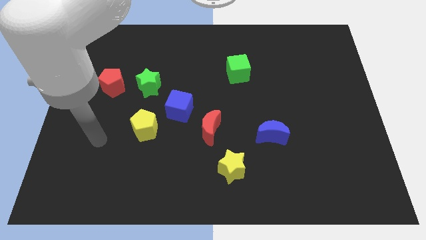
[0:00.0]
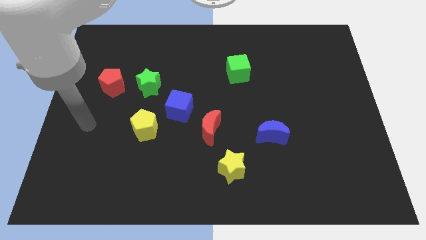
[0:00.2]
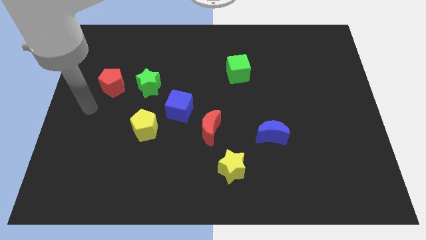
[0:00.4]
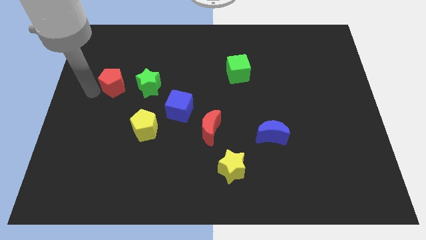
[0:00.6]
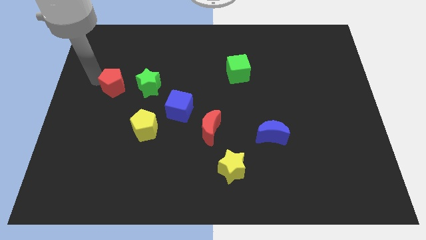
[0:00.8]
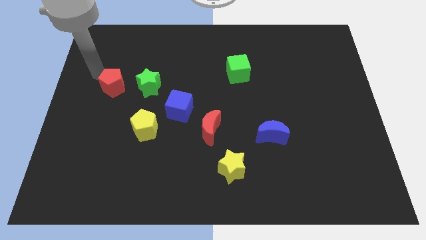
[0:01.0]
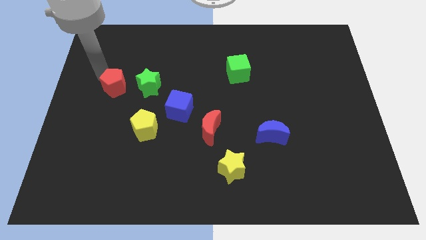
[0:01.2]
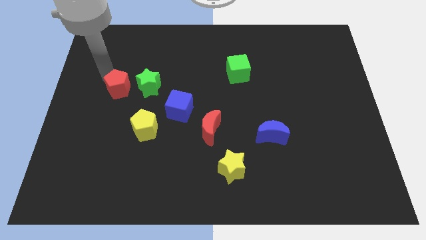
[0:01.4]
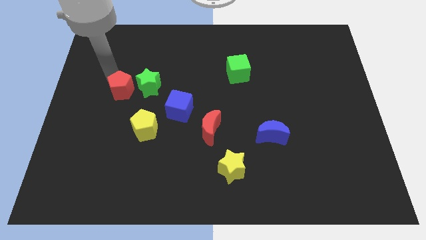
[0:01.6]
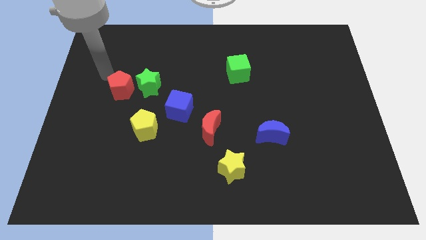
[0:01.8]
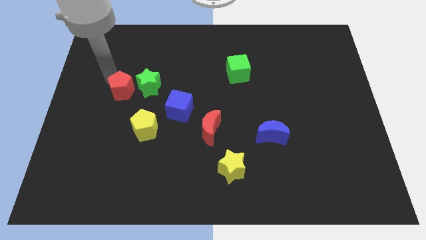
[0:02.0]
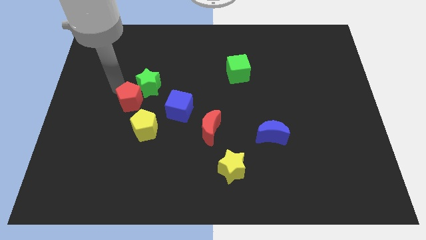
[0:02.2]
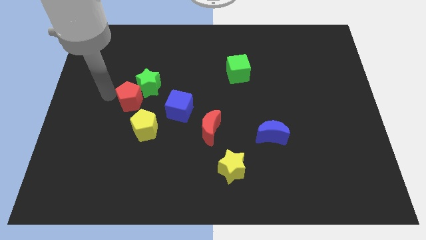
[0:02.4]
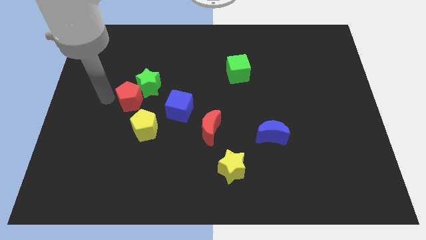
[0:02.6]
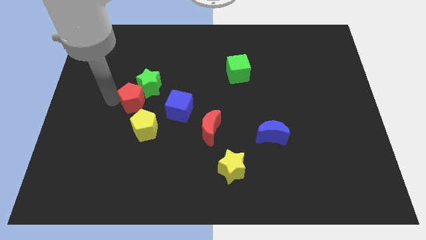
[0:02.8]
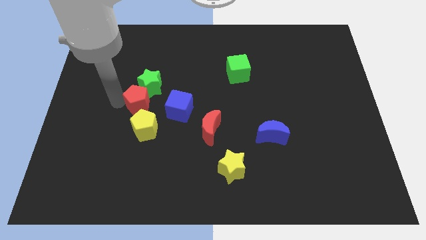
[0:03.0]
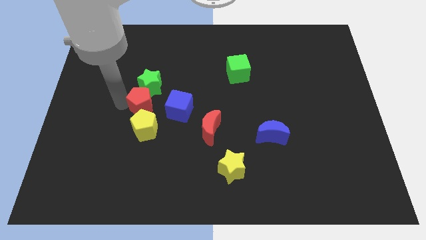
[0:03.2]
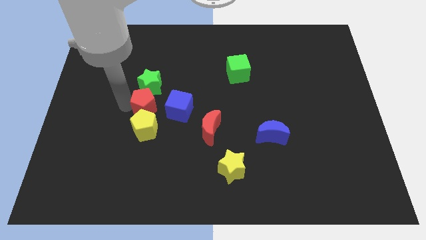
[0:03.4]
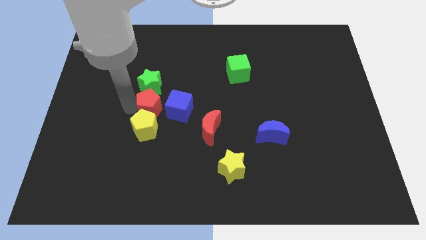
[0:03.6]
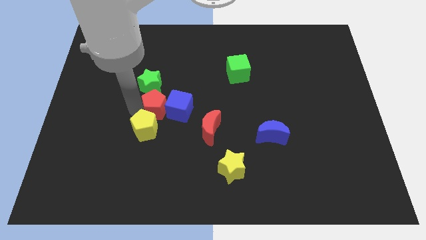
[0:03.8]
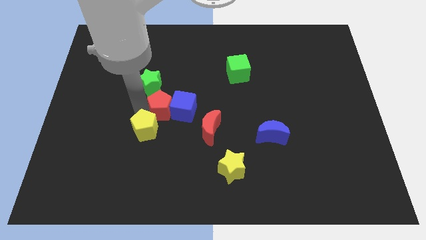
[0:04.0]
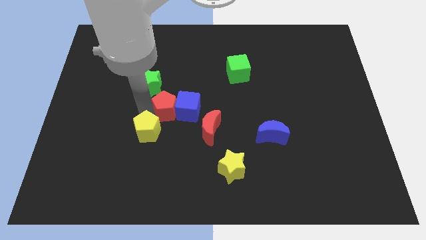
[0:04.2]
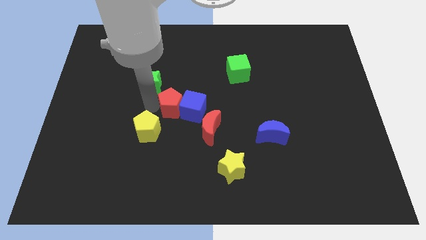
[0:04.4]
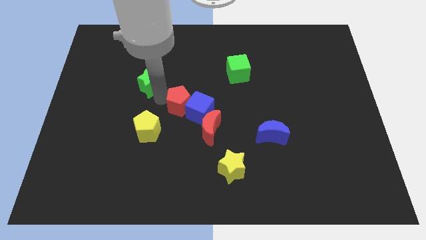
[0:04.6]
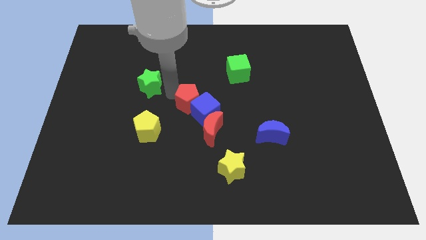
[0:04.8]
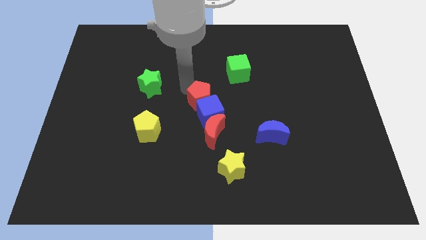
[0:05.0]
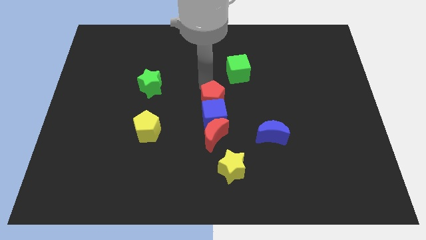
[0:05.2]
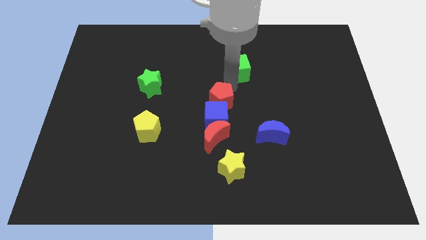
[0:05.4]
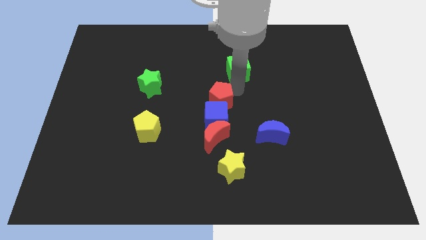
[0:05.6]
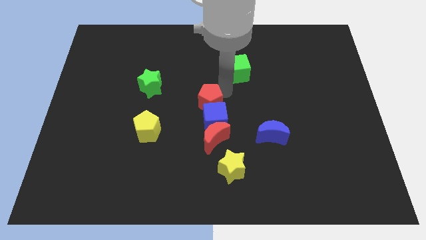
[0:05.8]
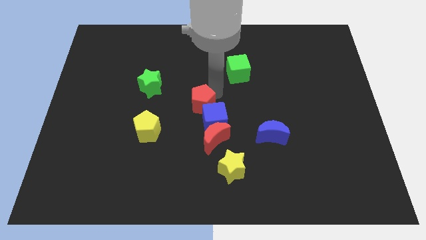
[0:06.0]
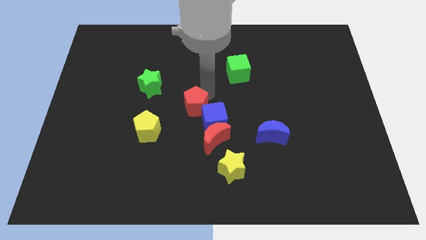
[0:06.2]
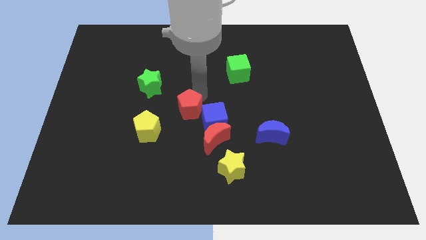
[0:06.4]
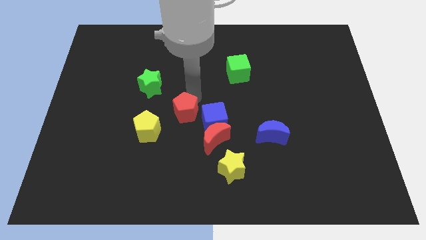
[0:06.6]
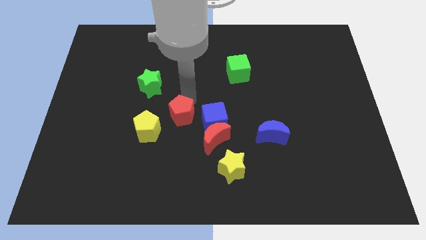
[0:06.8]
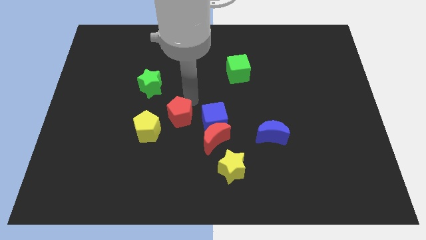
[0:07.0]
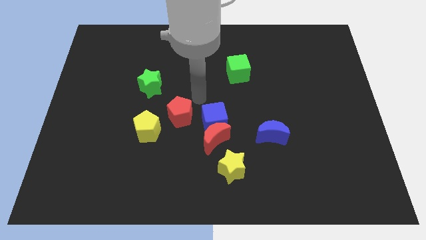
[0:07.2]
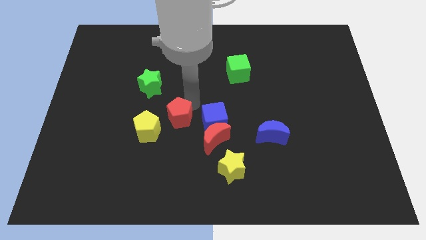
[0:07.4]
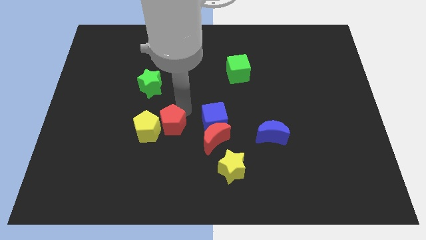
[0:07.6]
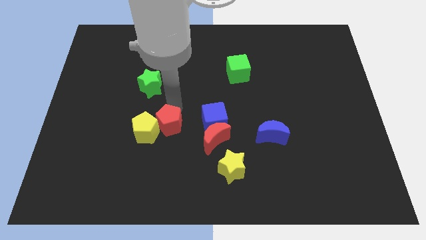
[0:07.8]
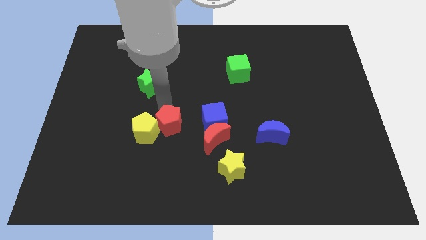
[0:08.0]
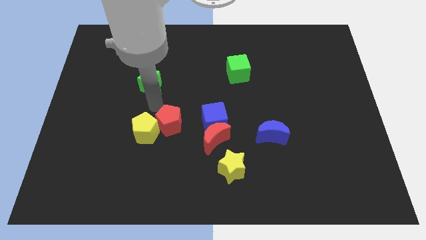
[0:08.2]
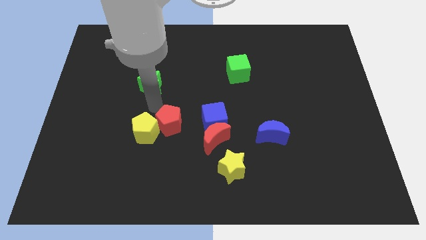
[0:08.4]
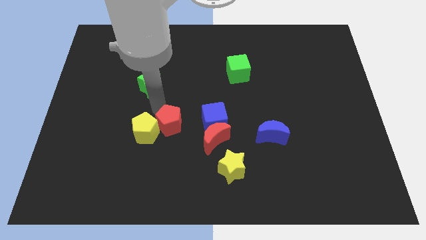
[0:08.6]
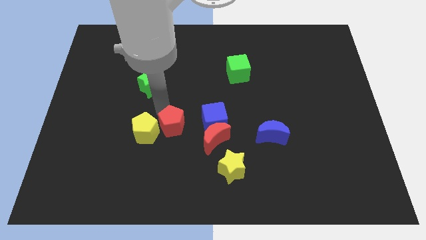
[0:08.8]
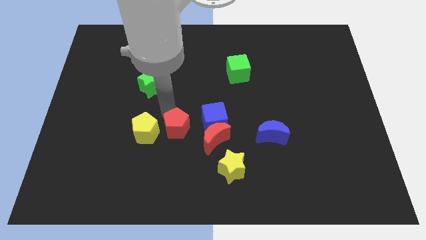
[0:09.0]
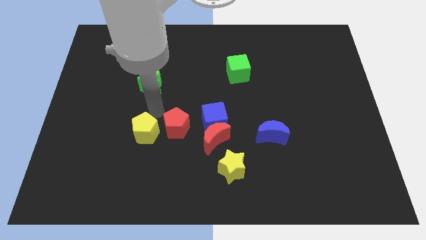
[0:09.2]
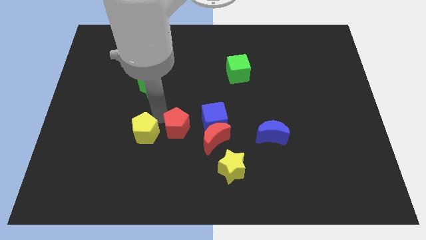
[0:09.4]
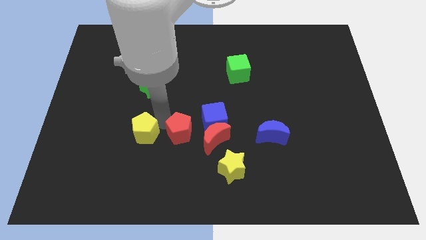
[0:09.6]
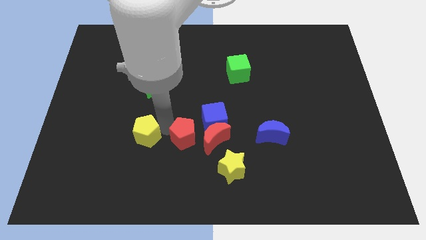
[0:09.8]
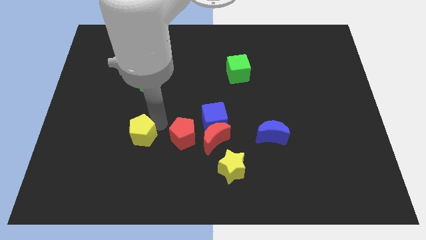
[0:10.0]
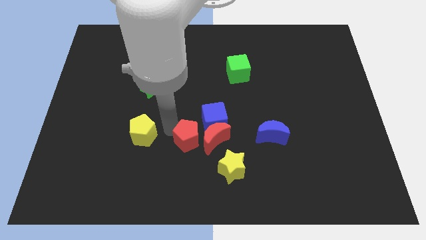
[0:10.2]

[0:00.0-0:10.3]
move the red pentagon diagonally up and to the left of the yellow star

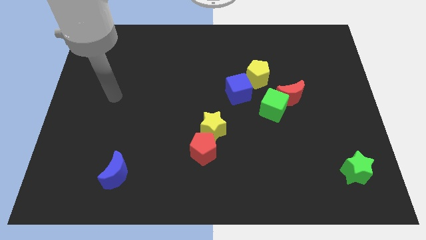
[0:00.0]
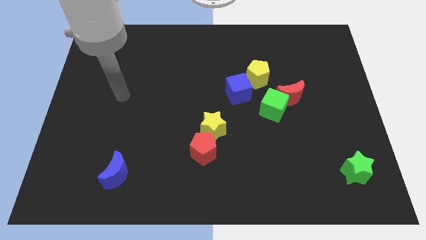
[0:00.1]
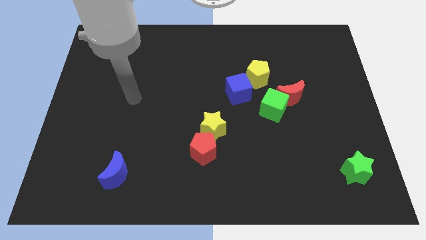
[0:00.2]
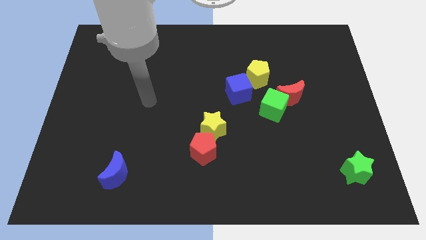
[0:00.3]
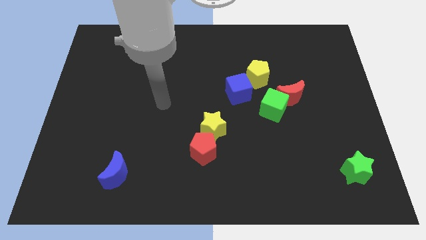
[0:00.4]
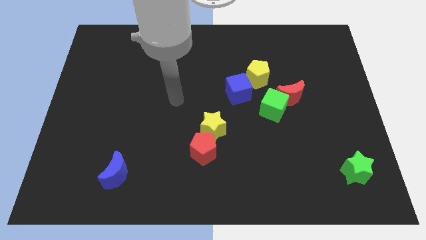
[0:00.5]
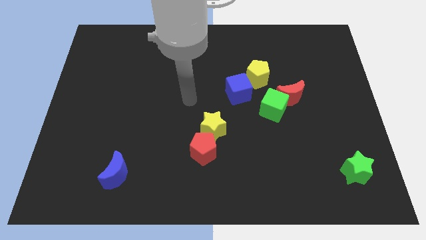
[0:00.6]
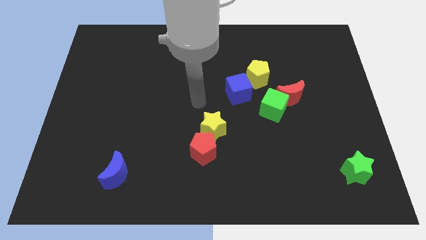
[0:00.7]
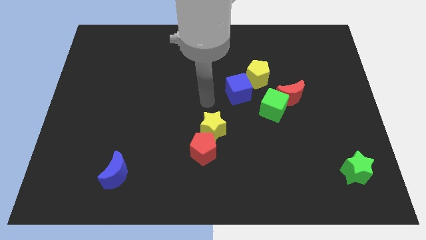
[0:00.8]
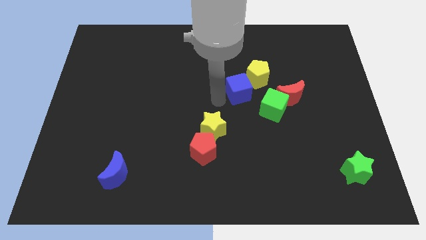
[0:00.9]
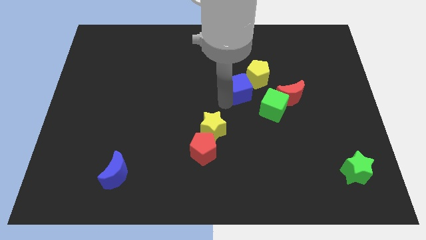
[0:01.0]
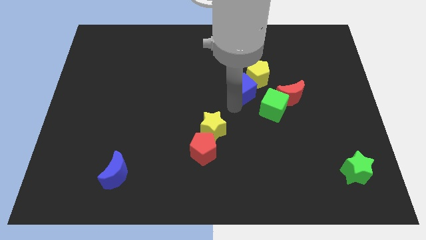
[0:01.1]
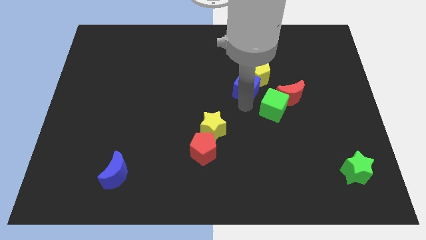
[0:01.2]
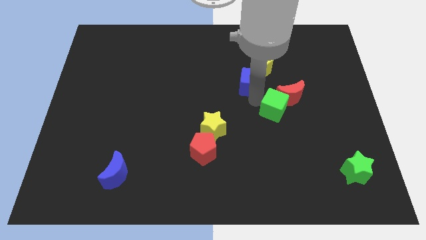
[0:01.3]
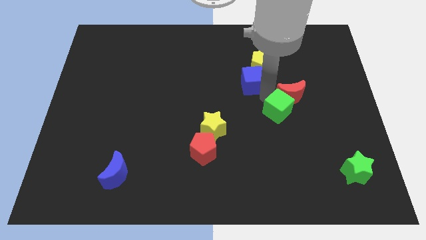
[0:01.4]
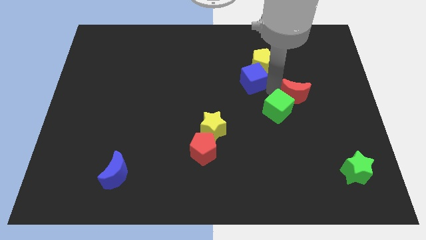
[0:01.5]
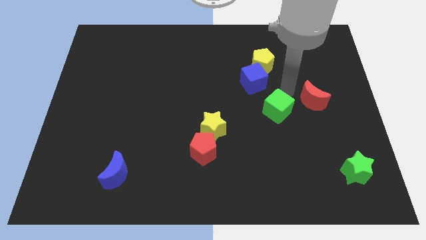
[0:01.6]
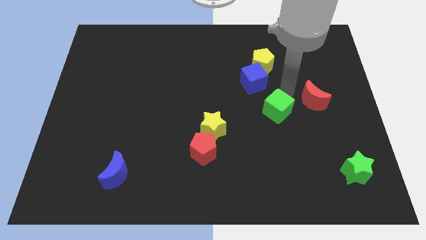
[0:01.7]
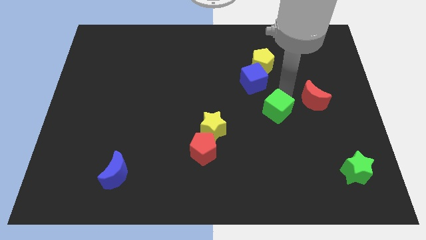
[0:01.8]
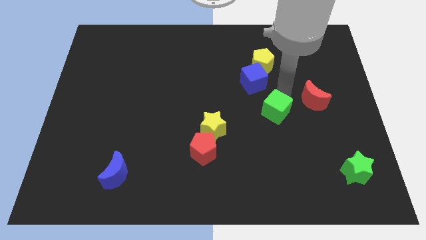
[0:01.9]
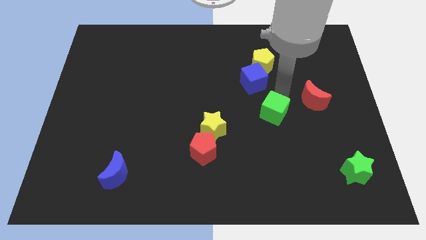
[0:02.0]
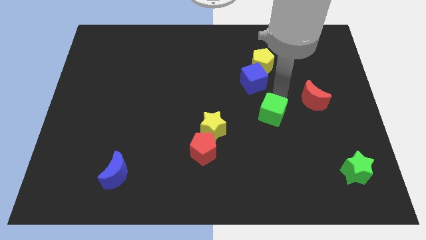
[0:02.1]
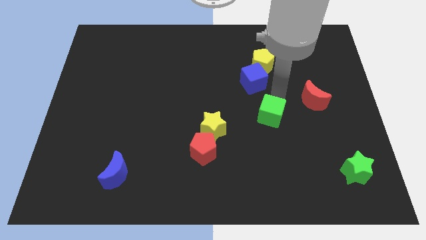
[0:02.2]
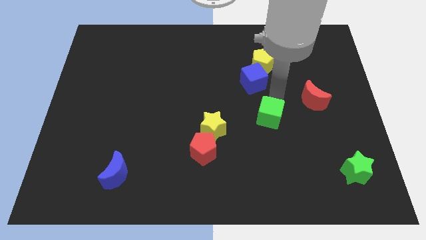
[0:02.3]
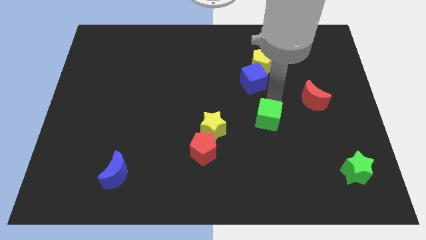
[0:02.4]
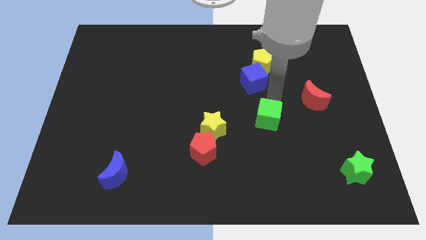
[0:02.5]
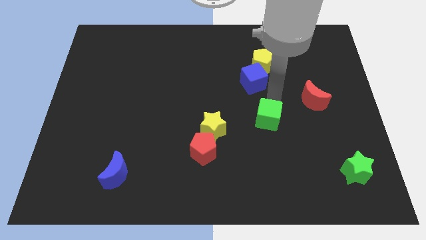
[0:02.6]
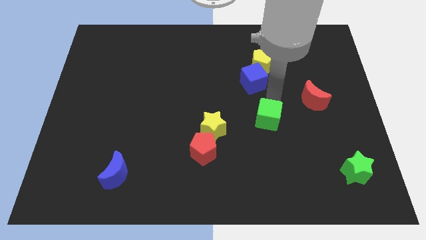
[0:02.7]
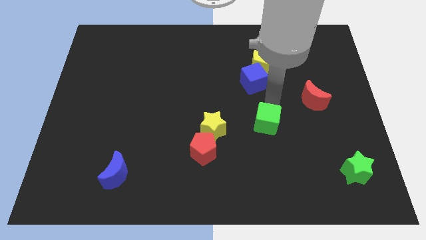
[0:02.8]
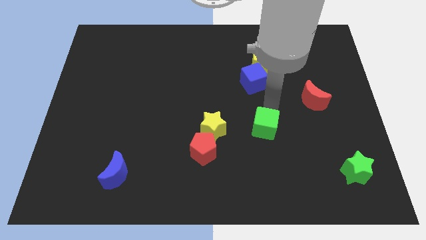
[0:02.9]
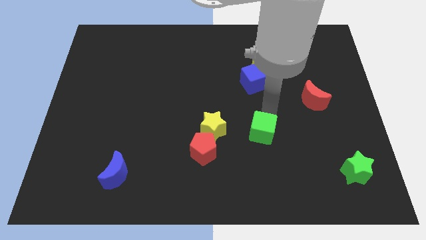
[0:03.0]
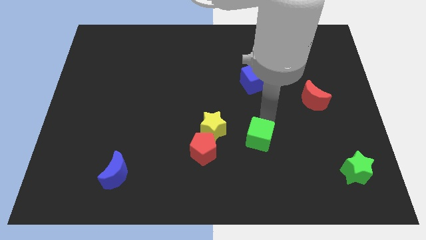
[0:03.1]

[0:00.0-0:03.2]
slide the green cube to the right side of the red pentagon
